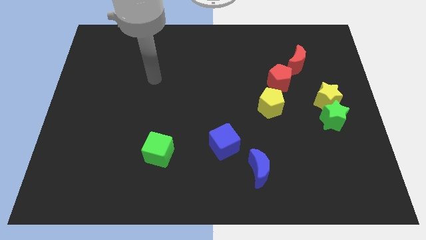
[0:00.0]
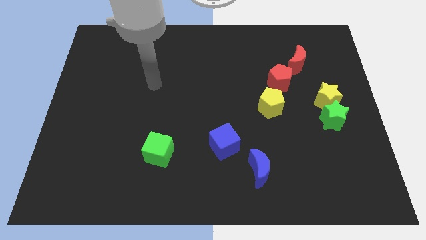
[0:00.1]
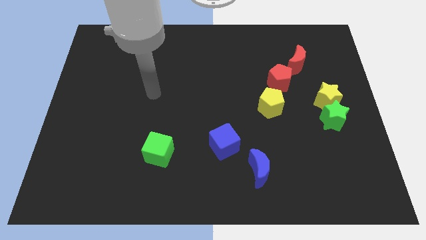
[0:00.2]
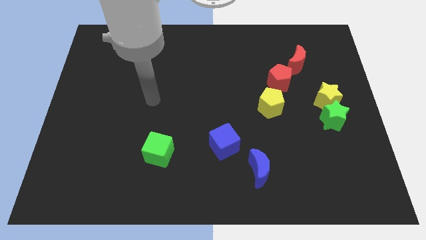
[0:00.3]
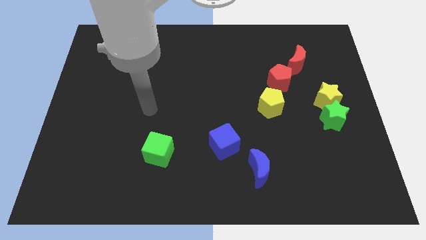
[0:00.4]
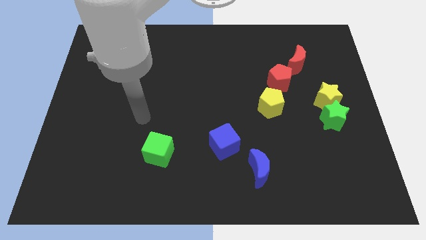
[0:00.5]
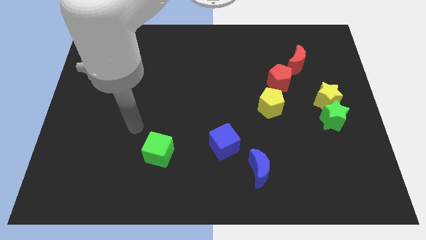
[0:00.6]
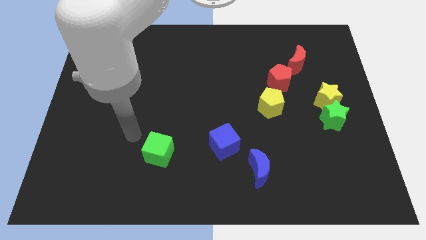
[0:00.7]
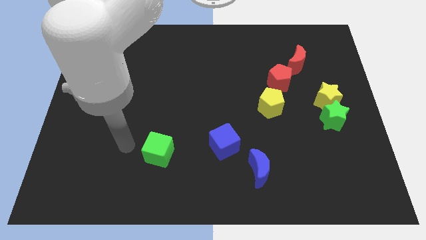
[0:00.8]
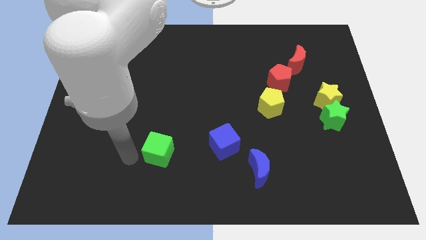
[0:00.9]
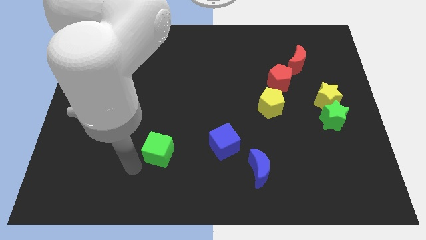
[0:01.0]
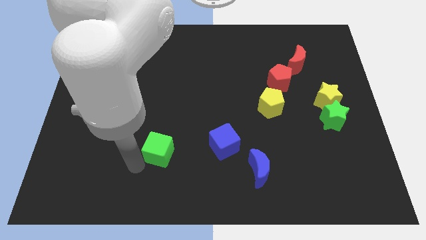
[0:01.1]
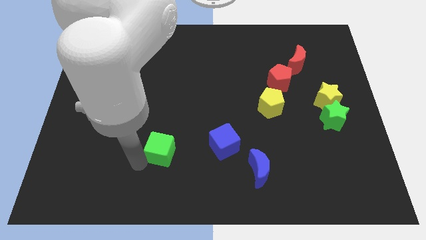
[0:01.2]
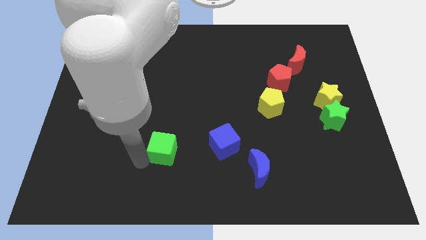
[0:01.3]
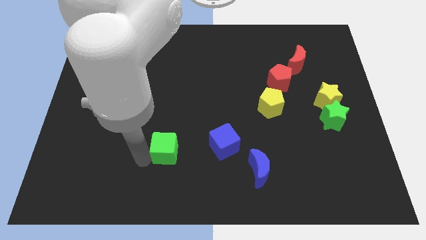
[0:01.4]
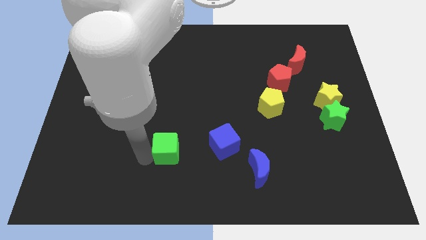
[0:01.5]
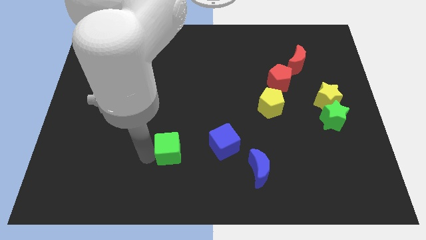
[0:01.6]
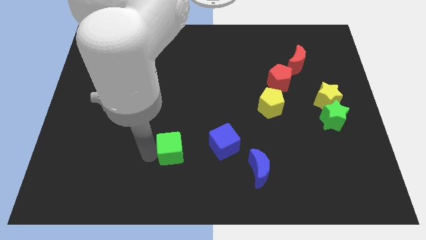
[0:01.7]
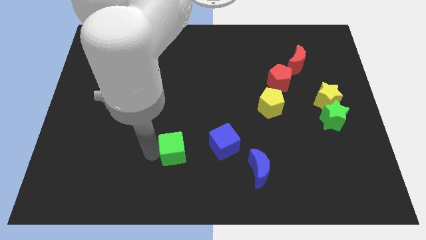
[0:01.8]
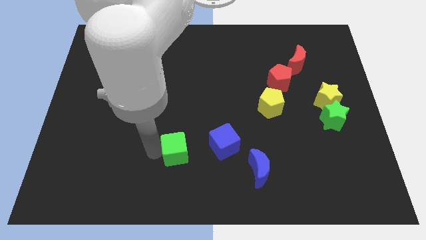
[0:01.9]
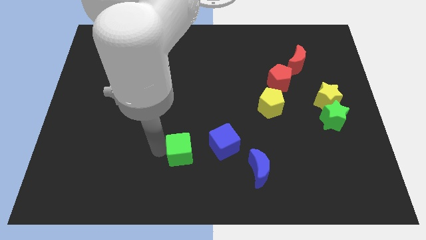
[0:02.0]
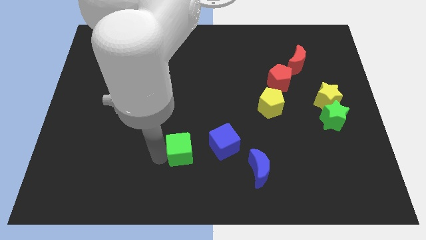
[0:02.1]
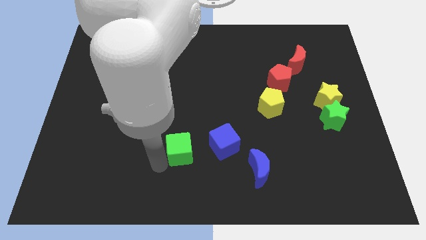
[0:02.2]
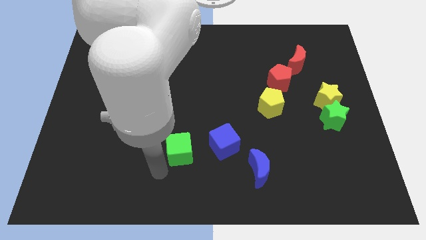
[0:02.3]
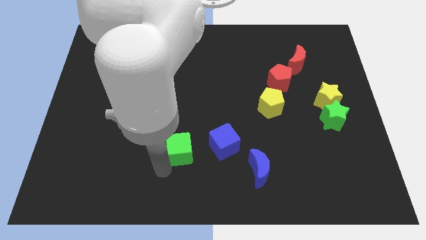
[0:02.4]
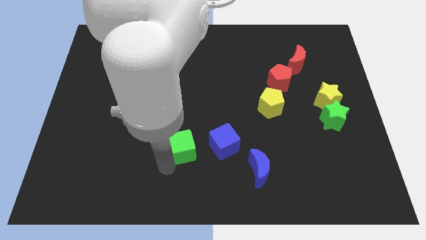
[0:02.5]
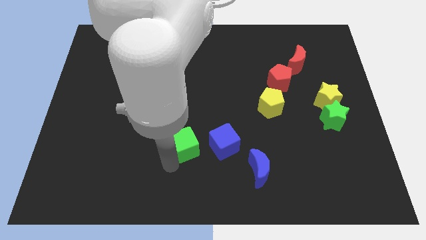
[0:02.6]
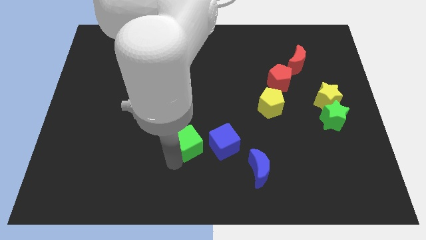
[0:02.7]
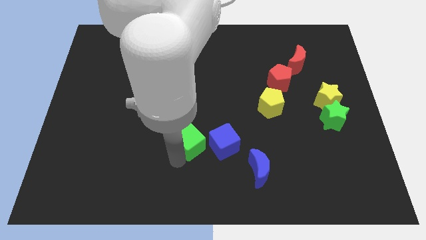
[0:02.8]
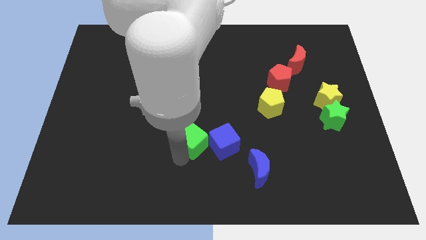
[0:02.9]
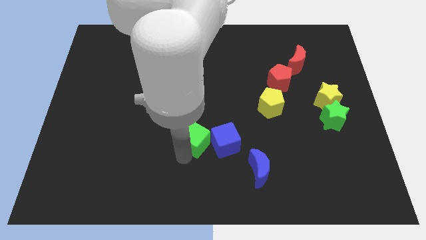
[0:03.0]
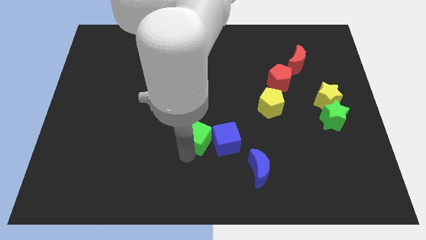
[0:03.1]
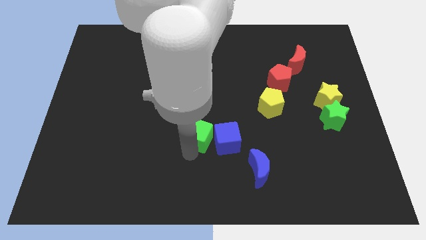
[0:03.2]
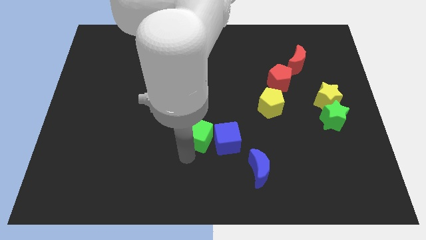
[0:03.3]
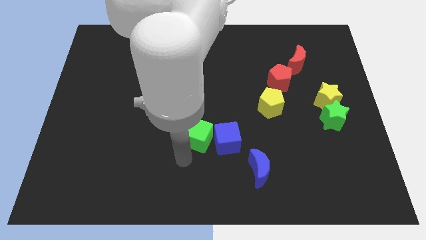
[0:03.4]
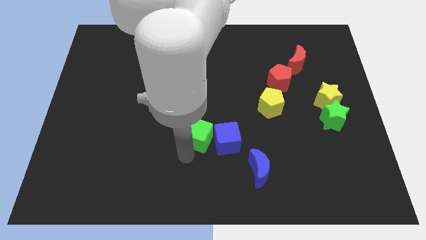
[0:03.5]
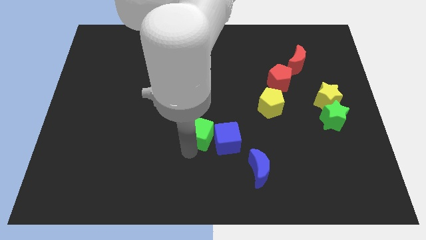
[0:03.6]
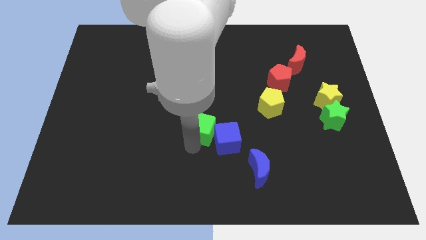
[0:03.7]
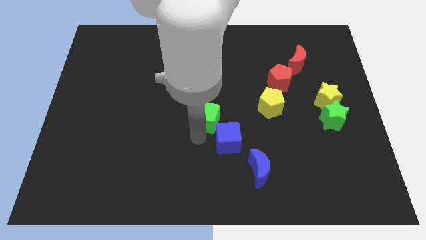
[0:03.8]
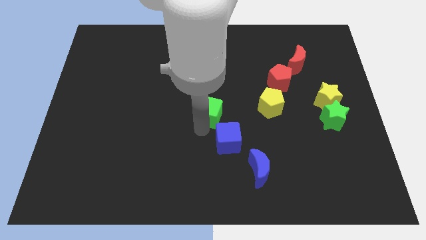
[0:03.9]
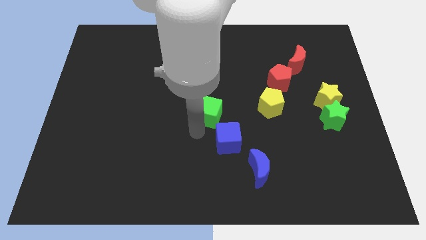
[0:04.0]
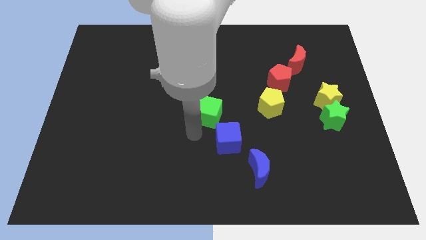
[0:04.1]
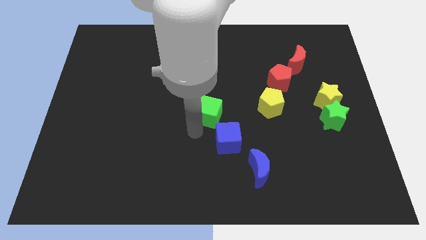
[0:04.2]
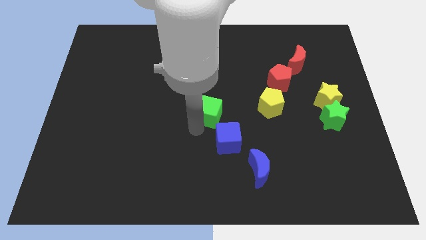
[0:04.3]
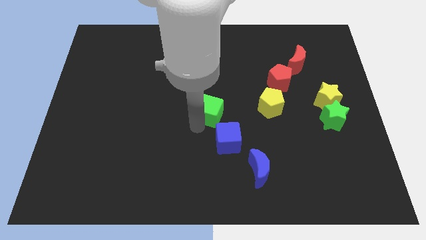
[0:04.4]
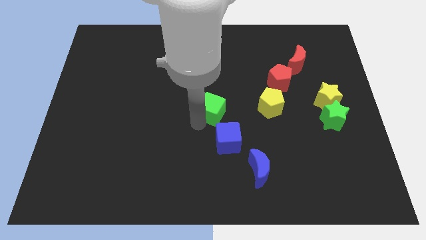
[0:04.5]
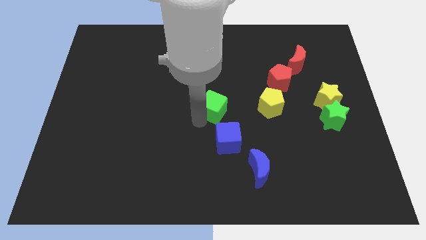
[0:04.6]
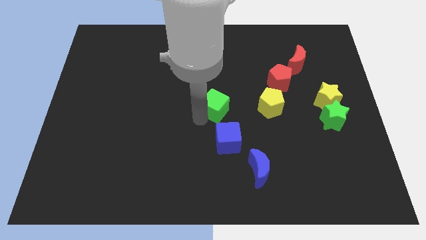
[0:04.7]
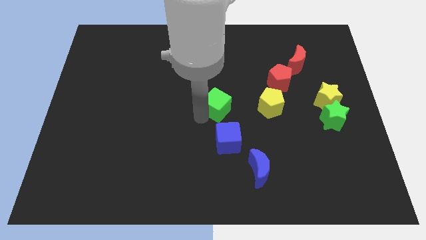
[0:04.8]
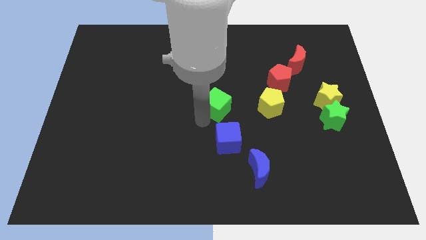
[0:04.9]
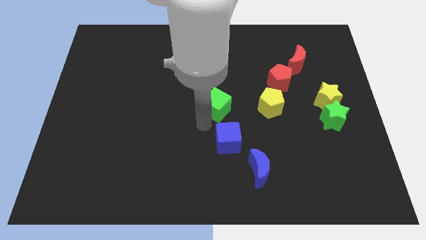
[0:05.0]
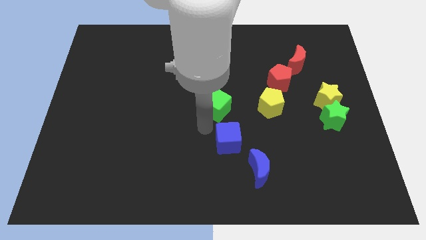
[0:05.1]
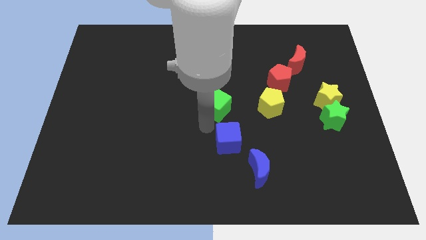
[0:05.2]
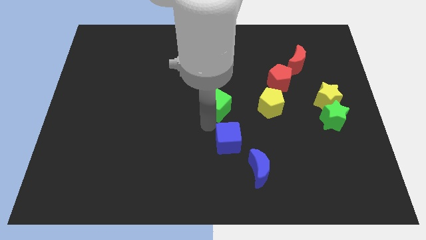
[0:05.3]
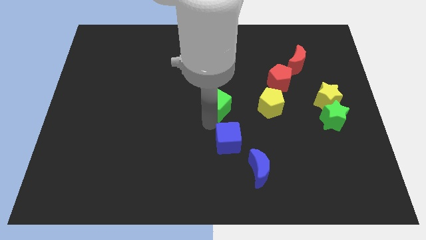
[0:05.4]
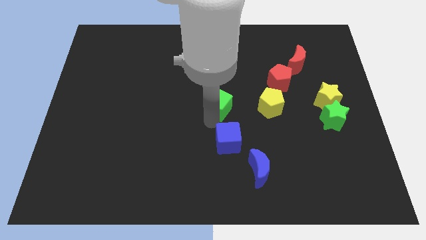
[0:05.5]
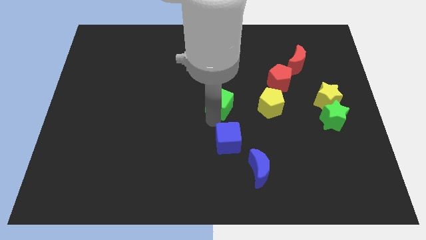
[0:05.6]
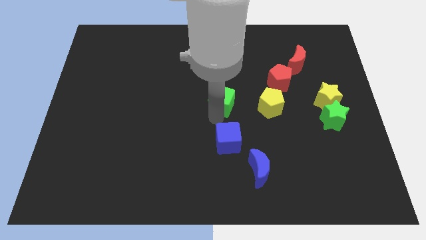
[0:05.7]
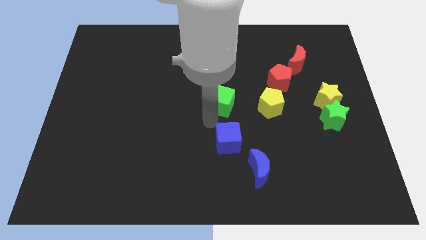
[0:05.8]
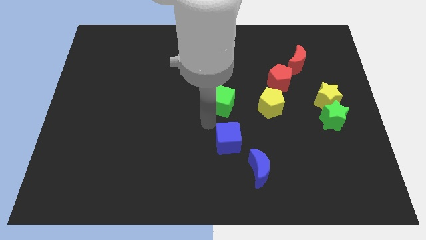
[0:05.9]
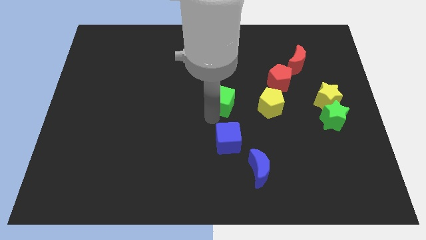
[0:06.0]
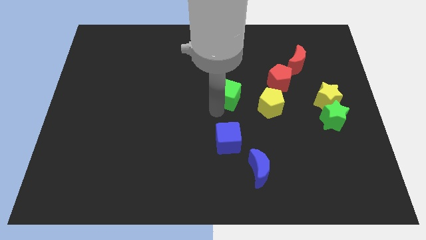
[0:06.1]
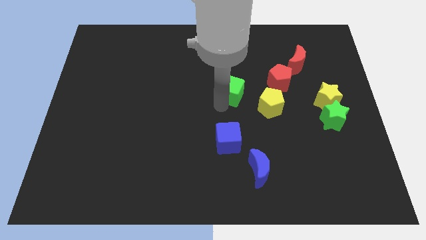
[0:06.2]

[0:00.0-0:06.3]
slide the green cube left of the red pentagon
